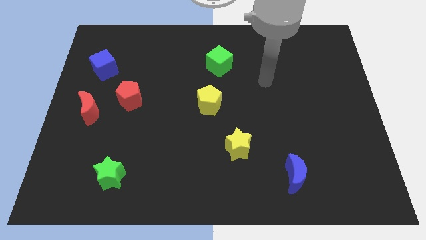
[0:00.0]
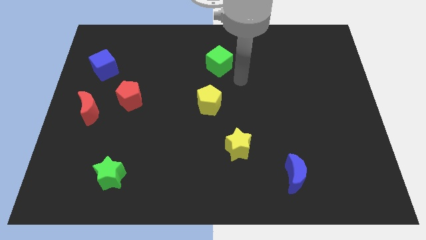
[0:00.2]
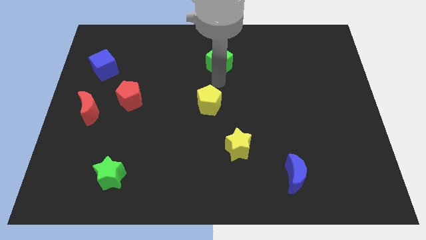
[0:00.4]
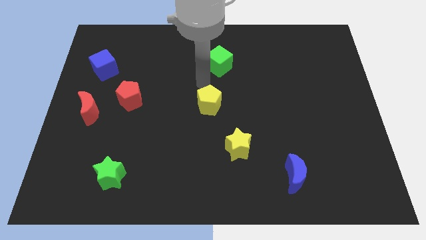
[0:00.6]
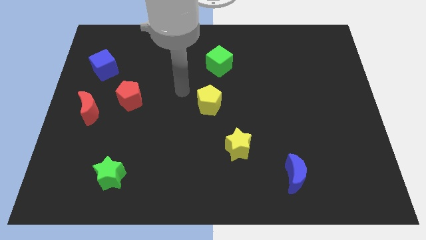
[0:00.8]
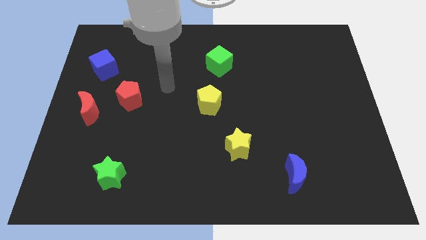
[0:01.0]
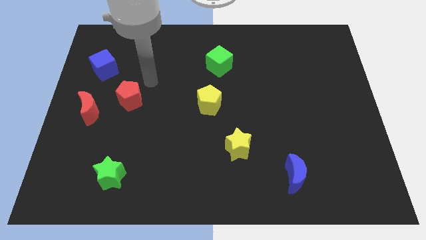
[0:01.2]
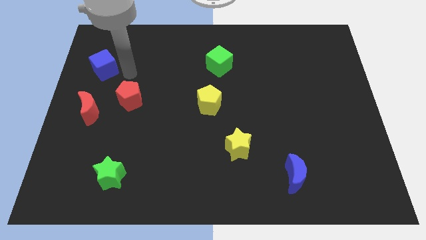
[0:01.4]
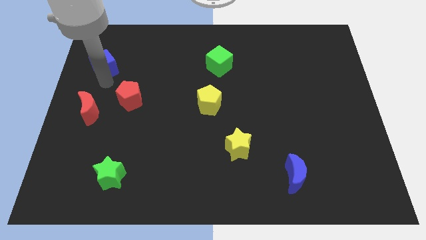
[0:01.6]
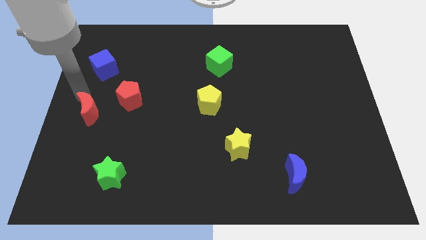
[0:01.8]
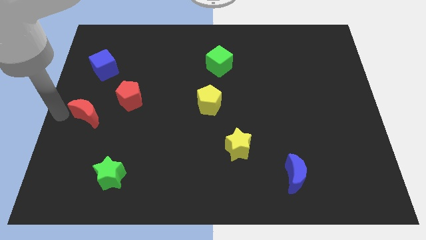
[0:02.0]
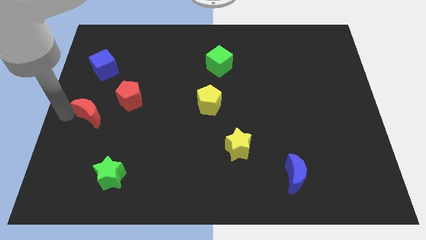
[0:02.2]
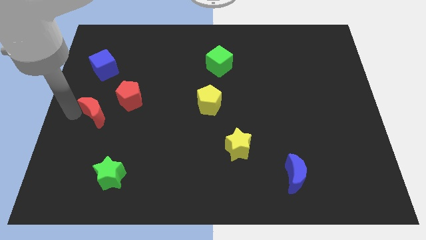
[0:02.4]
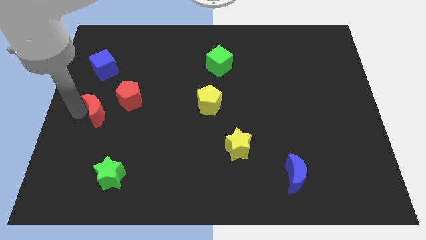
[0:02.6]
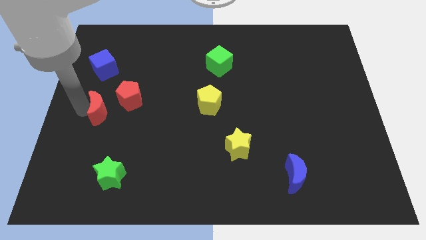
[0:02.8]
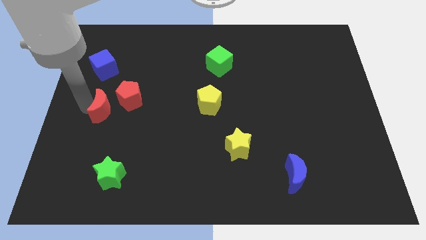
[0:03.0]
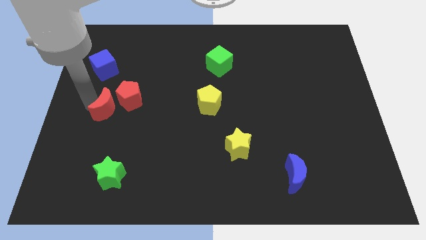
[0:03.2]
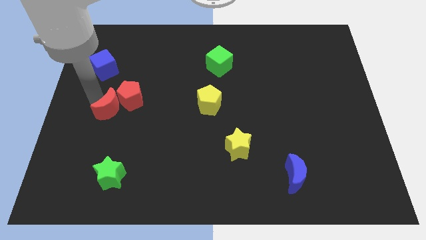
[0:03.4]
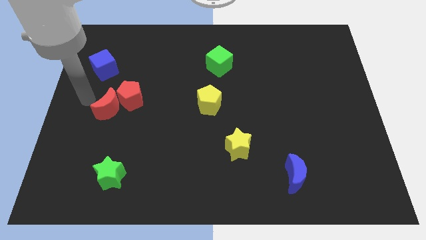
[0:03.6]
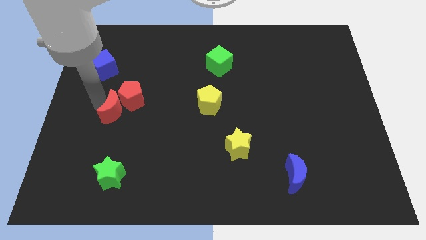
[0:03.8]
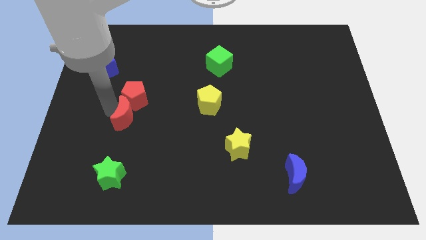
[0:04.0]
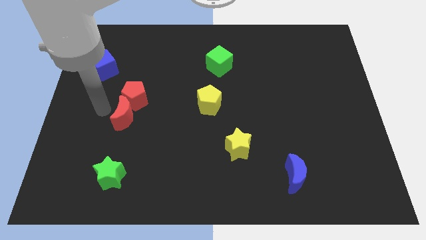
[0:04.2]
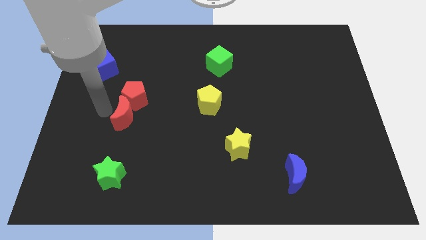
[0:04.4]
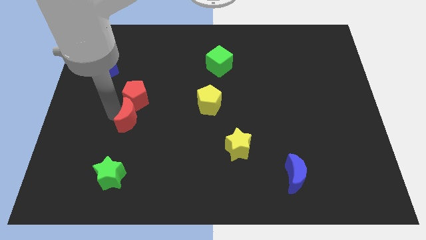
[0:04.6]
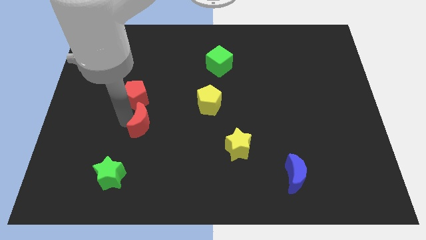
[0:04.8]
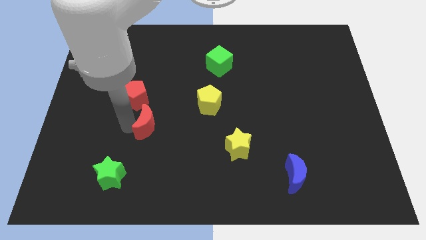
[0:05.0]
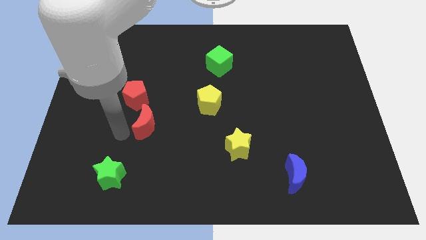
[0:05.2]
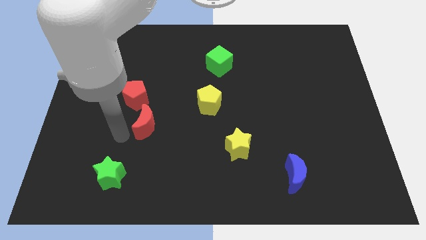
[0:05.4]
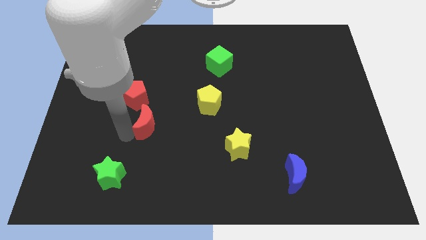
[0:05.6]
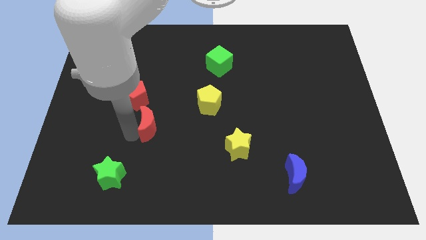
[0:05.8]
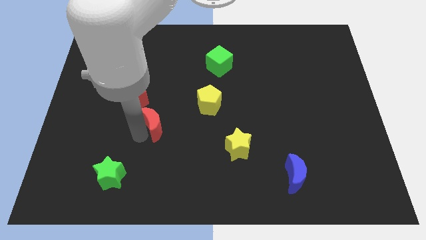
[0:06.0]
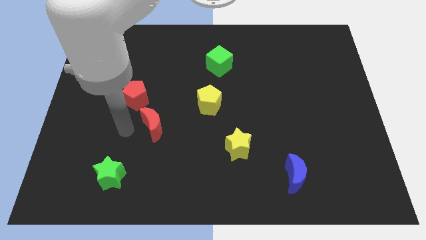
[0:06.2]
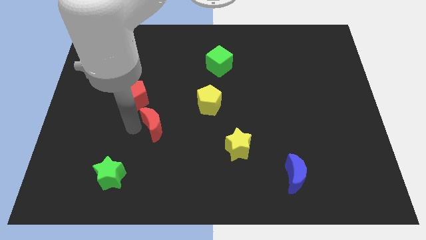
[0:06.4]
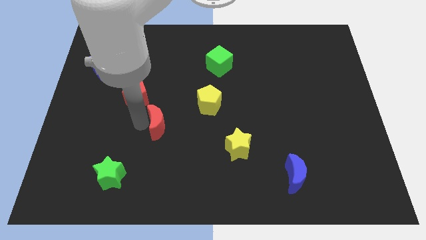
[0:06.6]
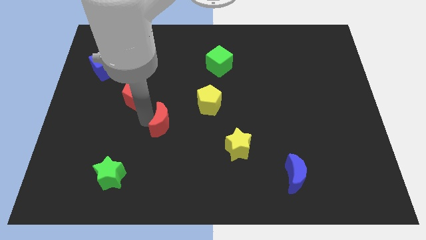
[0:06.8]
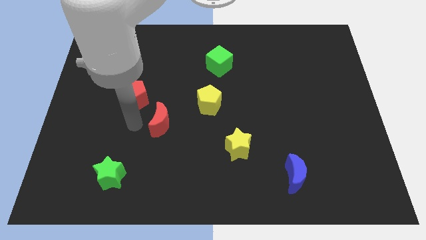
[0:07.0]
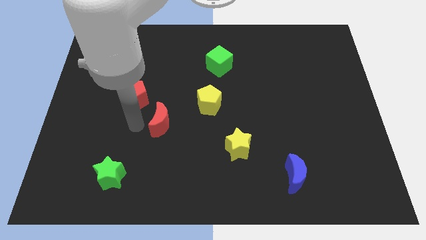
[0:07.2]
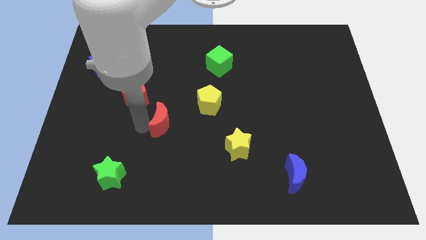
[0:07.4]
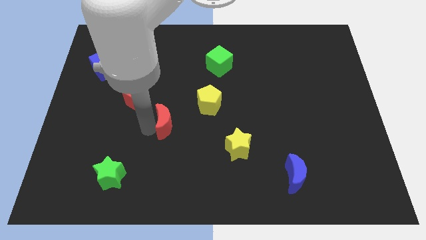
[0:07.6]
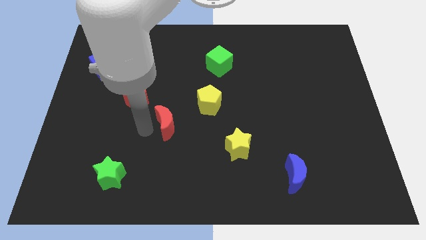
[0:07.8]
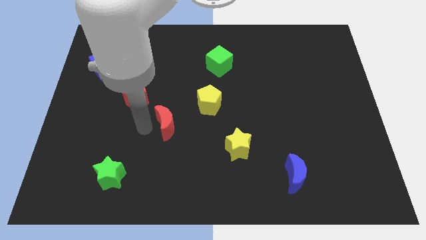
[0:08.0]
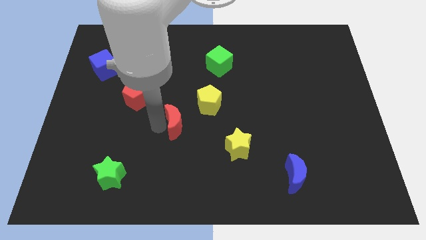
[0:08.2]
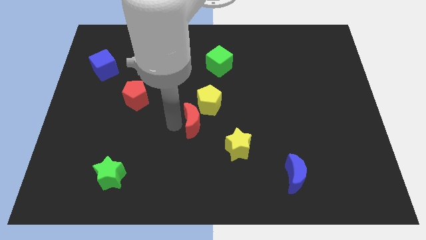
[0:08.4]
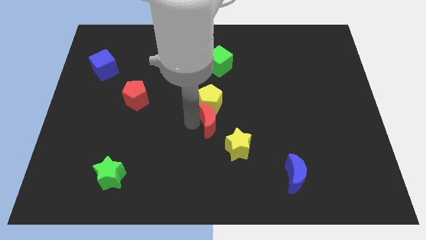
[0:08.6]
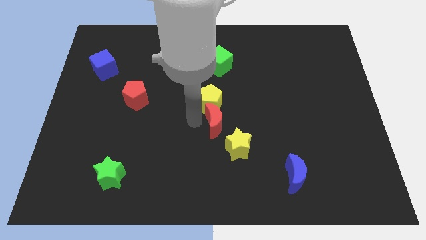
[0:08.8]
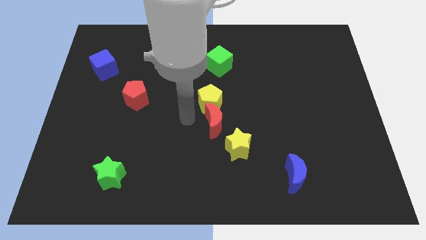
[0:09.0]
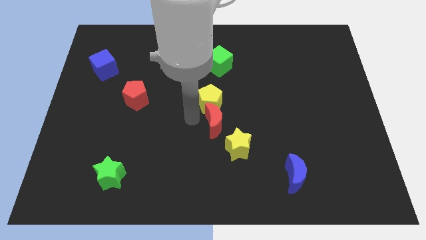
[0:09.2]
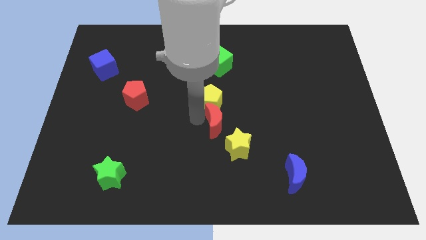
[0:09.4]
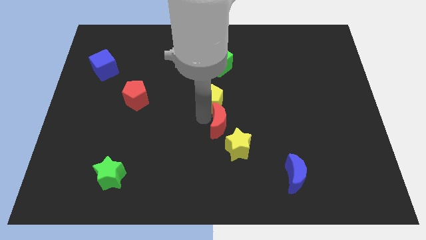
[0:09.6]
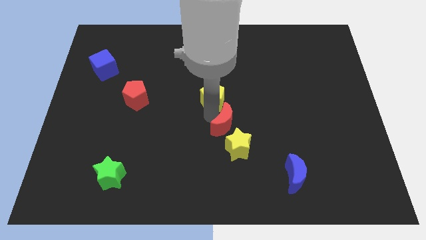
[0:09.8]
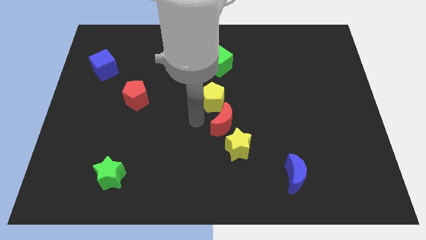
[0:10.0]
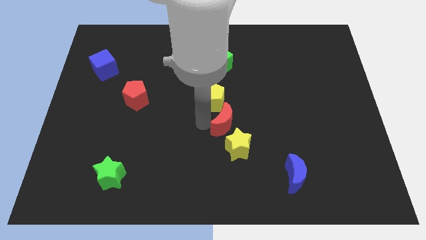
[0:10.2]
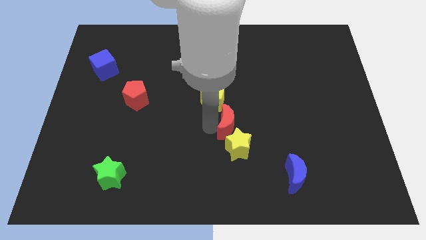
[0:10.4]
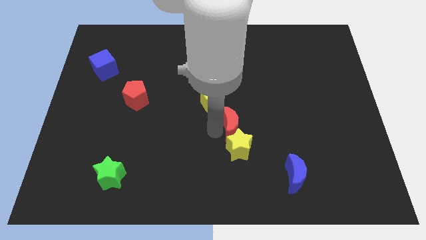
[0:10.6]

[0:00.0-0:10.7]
move the red moon to the top right side of the yellow star

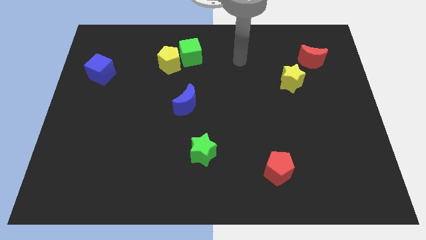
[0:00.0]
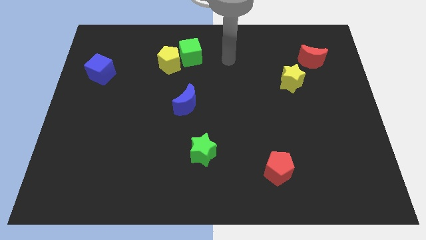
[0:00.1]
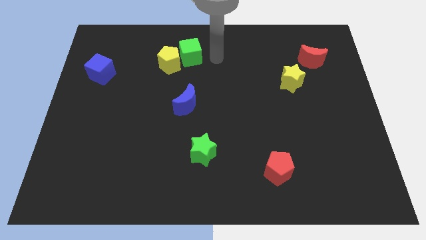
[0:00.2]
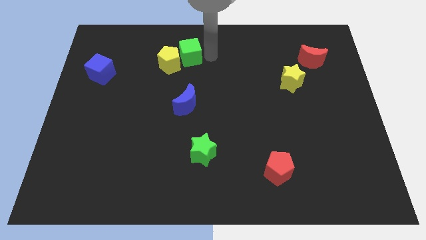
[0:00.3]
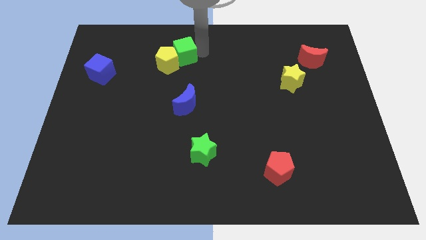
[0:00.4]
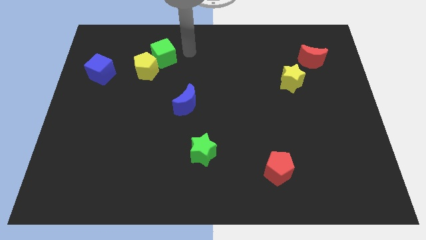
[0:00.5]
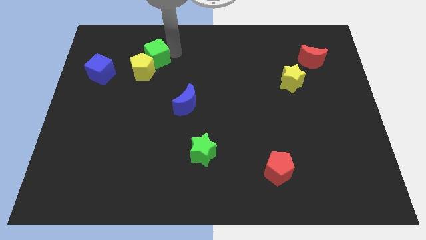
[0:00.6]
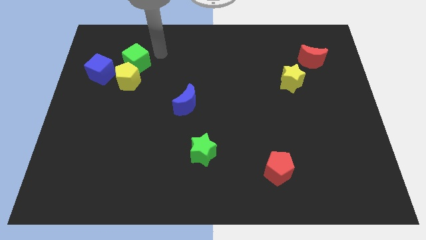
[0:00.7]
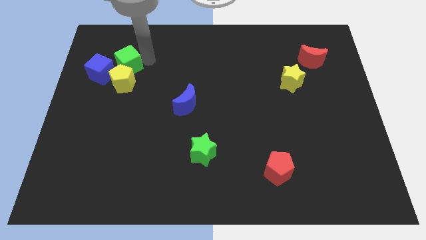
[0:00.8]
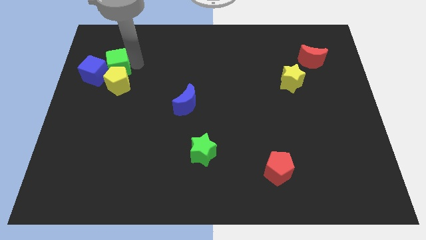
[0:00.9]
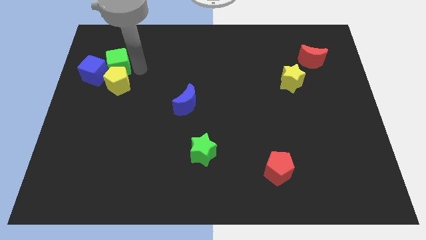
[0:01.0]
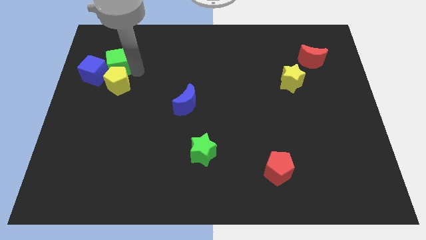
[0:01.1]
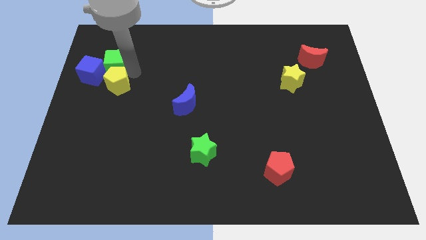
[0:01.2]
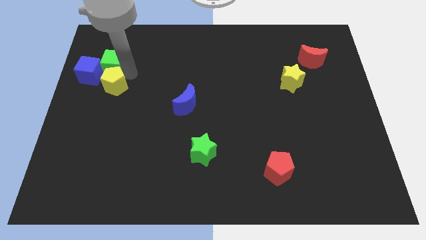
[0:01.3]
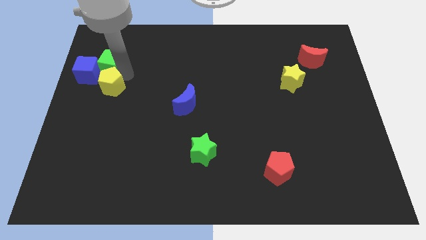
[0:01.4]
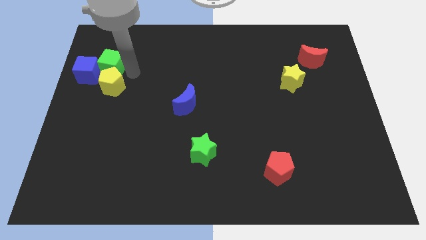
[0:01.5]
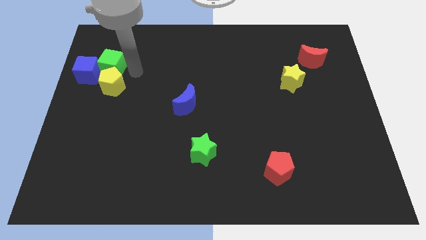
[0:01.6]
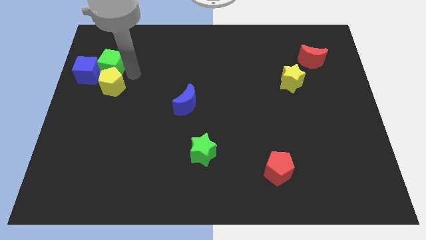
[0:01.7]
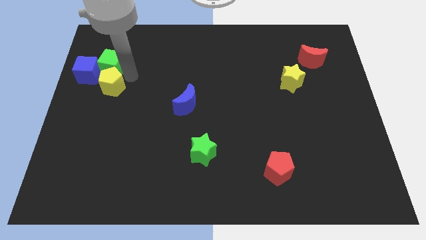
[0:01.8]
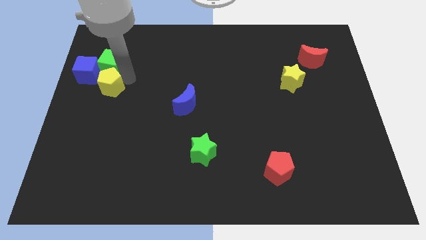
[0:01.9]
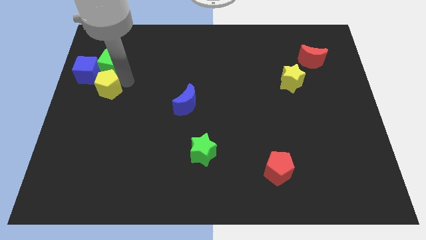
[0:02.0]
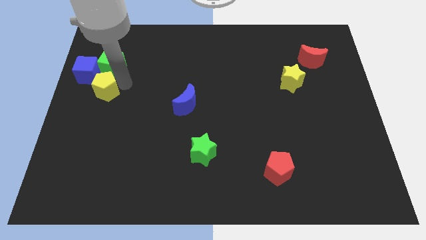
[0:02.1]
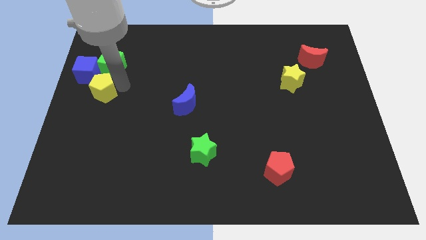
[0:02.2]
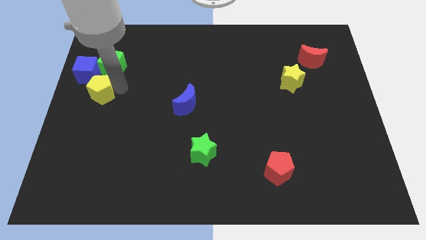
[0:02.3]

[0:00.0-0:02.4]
move the yellow pentagon to the bottom of the blue cube

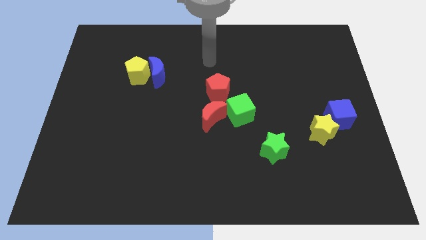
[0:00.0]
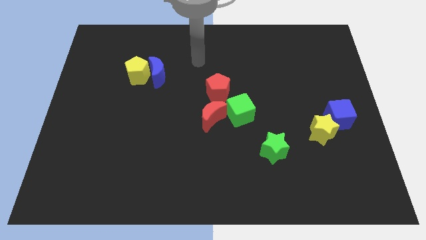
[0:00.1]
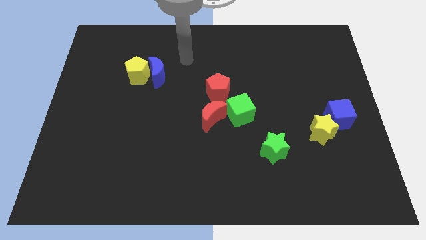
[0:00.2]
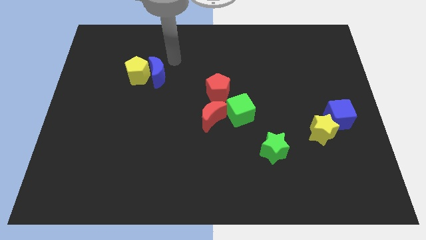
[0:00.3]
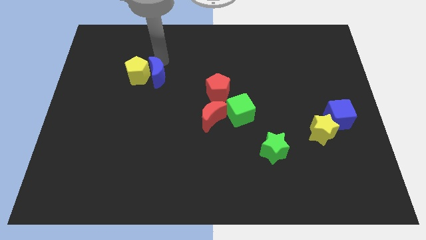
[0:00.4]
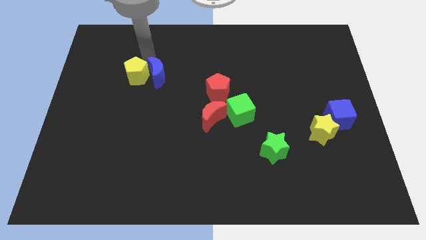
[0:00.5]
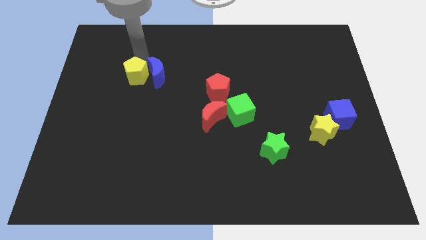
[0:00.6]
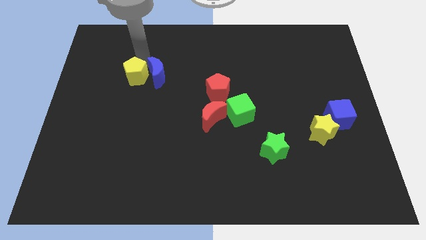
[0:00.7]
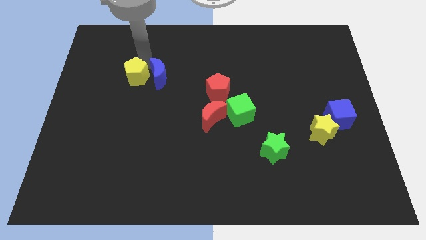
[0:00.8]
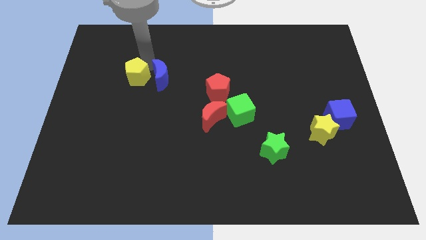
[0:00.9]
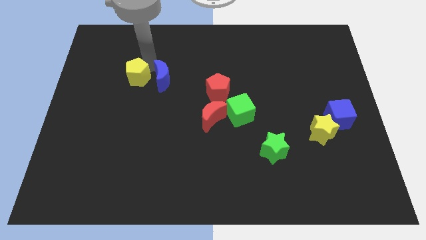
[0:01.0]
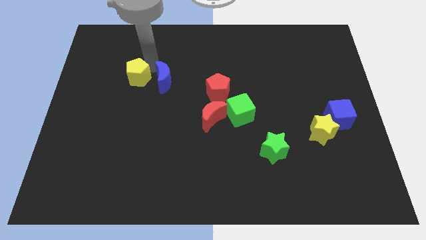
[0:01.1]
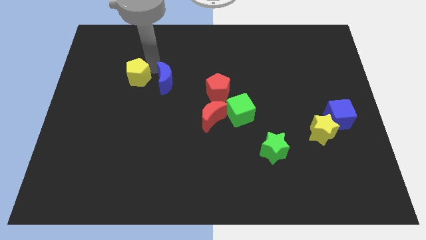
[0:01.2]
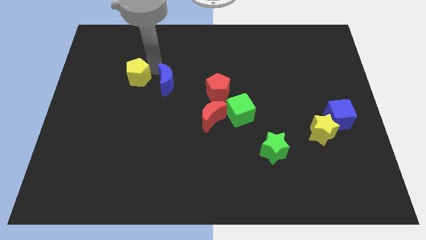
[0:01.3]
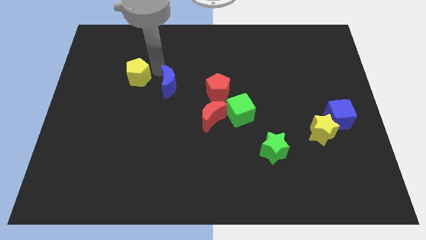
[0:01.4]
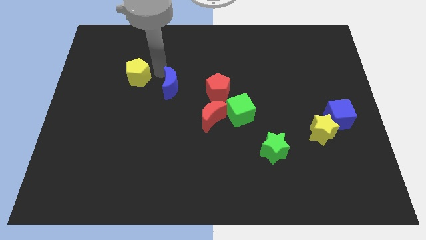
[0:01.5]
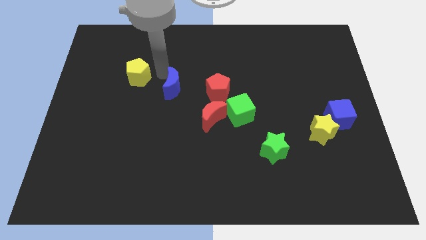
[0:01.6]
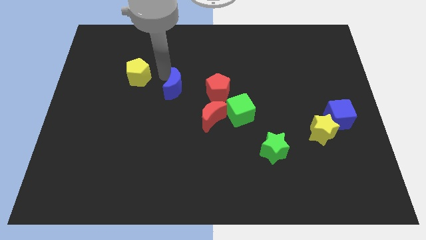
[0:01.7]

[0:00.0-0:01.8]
put the blue moon to the top left of the red moon
